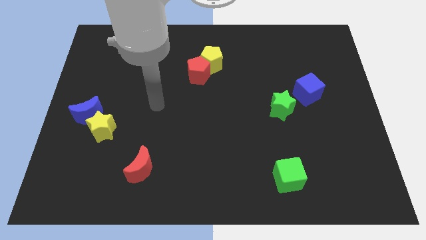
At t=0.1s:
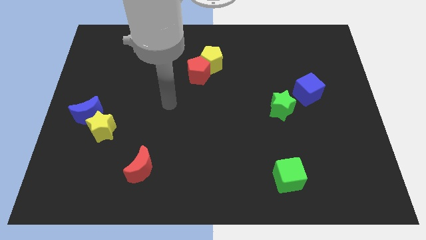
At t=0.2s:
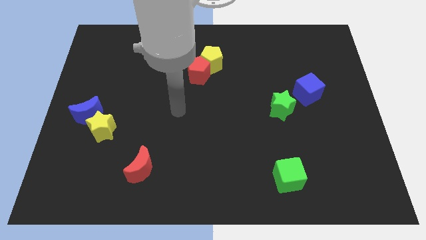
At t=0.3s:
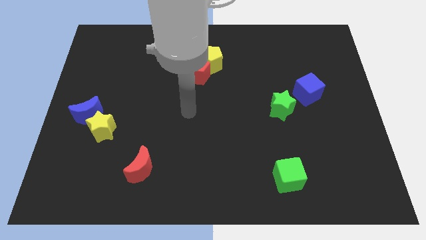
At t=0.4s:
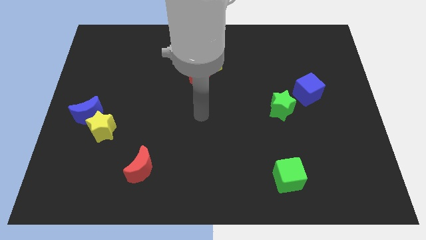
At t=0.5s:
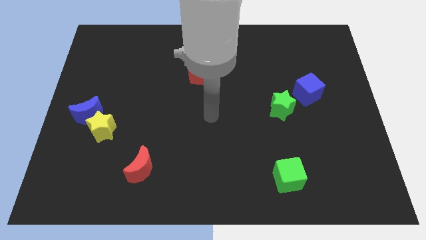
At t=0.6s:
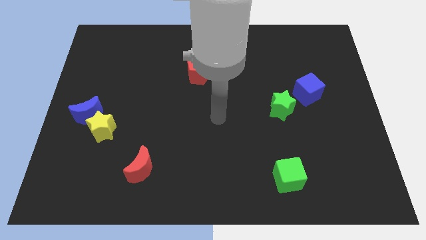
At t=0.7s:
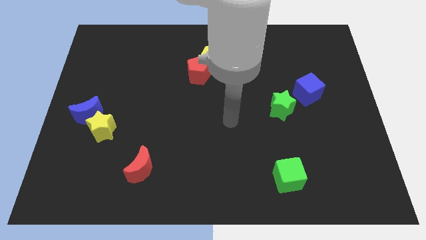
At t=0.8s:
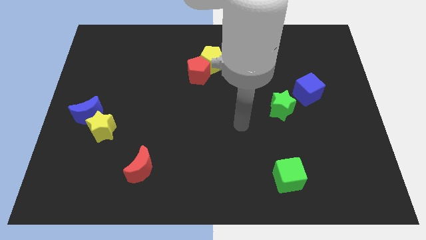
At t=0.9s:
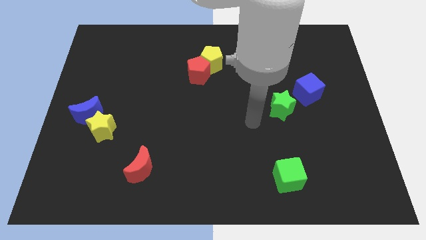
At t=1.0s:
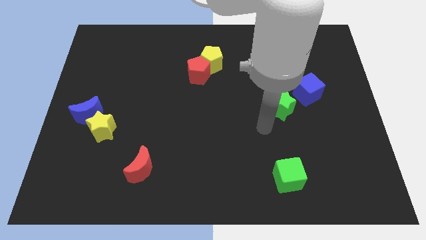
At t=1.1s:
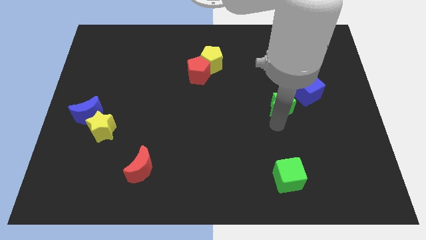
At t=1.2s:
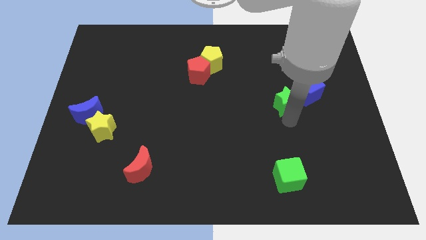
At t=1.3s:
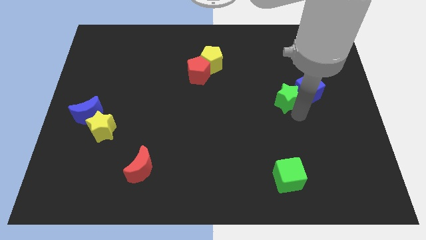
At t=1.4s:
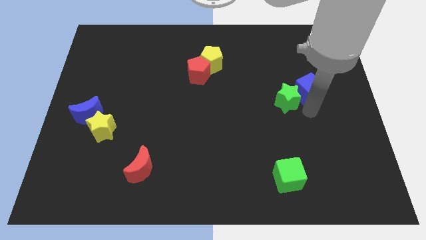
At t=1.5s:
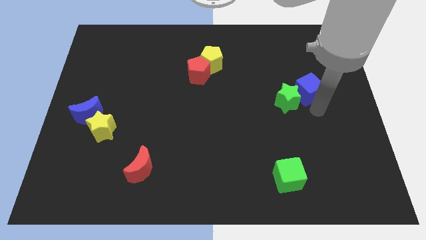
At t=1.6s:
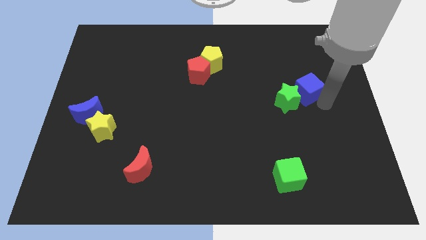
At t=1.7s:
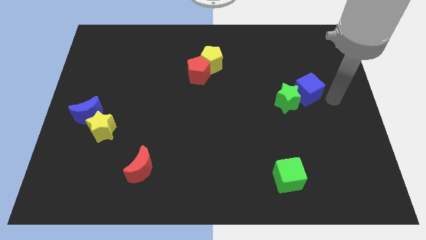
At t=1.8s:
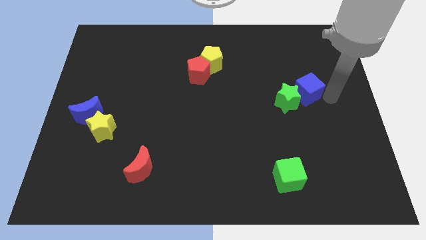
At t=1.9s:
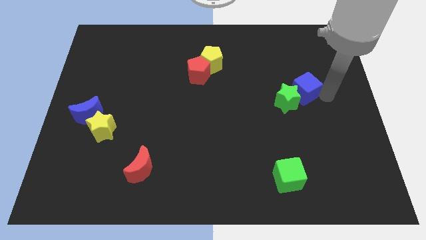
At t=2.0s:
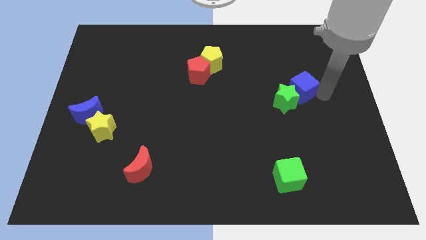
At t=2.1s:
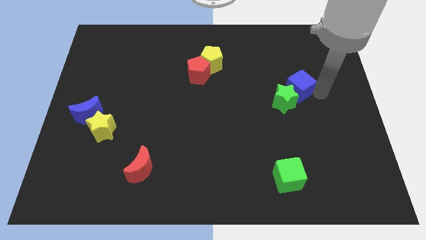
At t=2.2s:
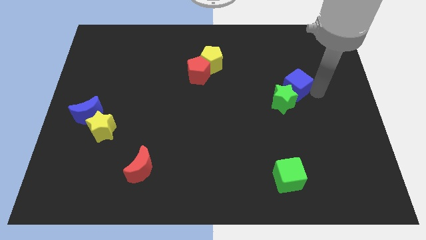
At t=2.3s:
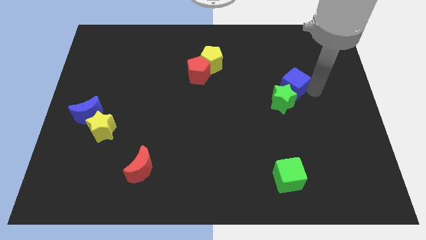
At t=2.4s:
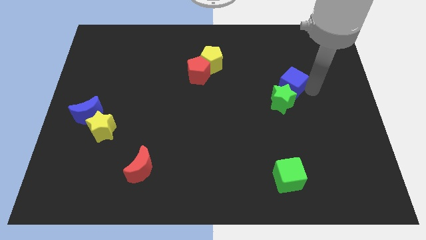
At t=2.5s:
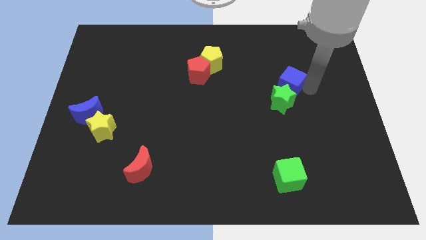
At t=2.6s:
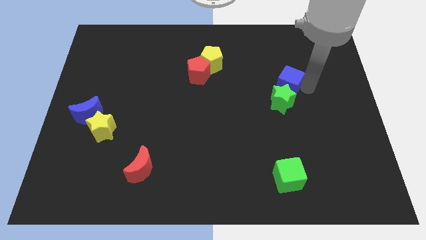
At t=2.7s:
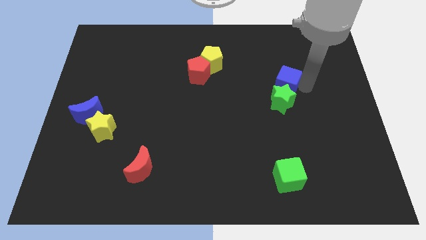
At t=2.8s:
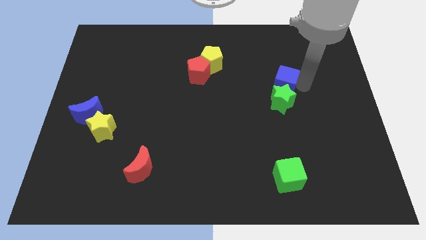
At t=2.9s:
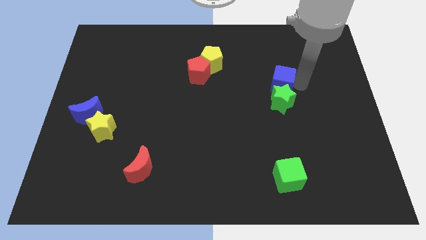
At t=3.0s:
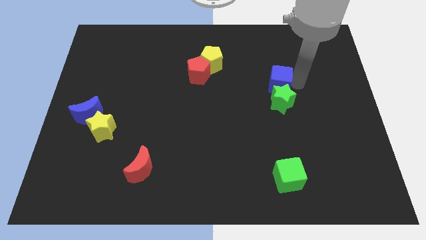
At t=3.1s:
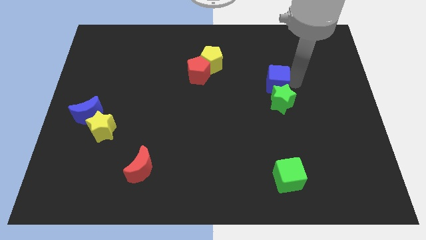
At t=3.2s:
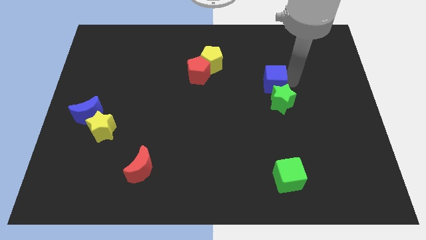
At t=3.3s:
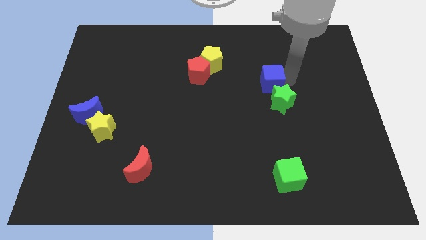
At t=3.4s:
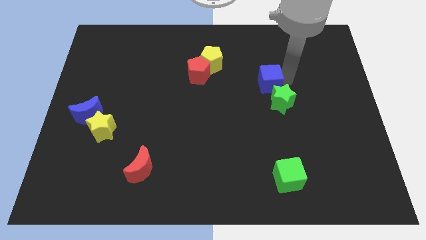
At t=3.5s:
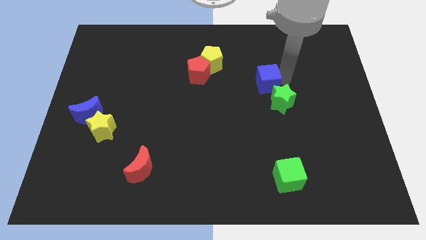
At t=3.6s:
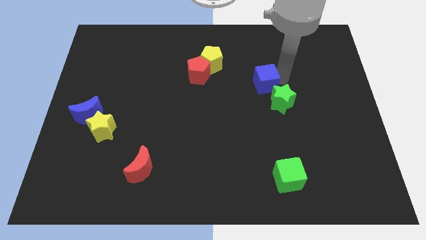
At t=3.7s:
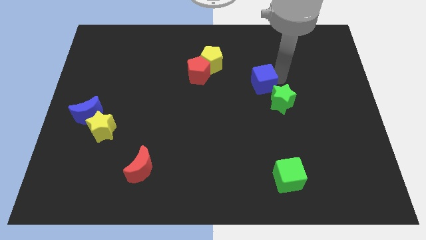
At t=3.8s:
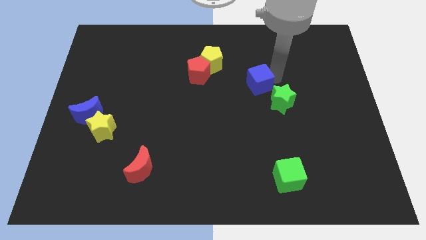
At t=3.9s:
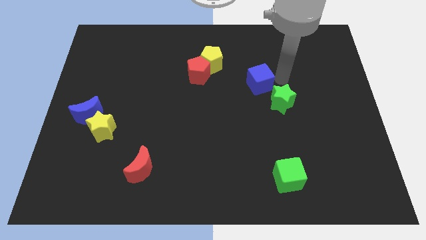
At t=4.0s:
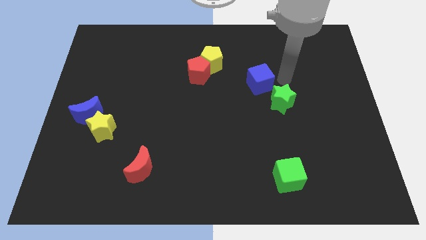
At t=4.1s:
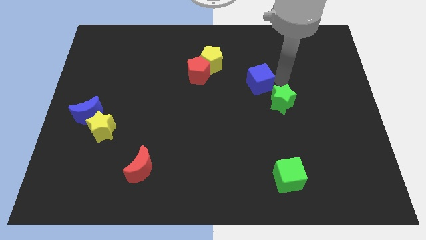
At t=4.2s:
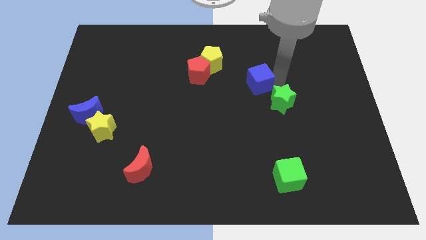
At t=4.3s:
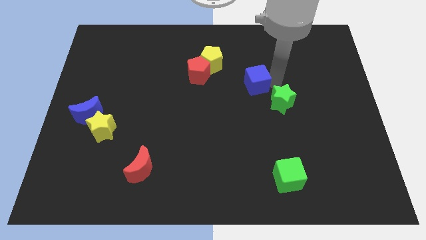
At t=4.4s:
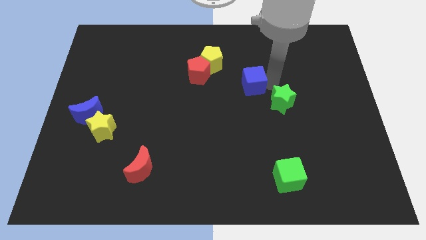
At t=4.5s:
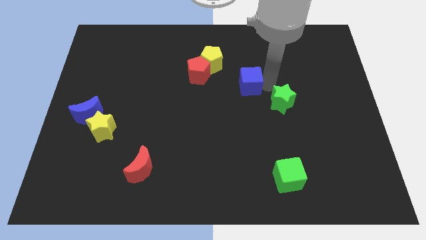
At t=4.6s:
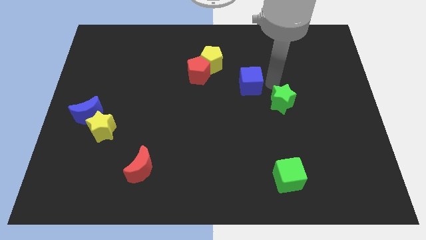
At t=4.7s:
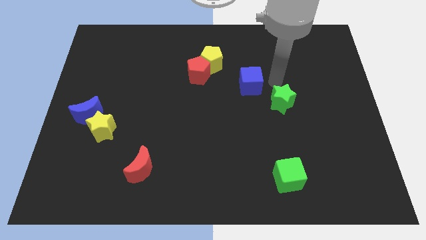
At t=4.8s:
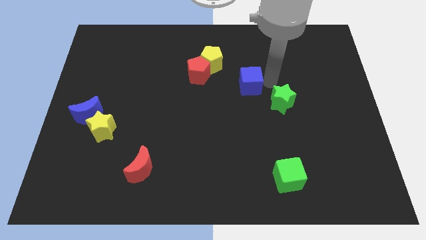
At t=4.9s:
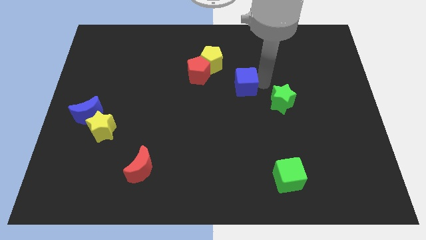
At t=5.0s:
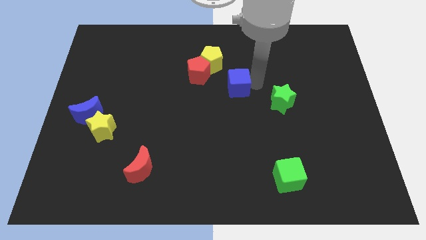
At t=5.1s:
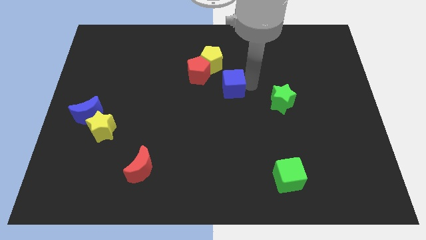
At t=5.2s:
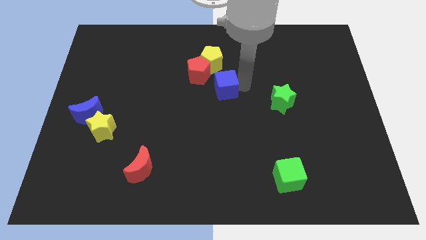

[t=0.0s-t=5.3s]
slide the blue cube to the left

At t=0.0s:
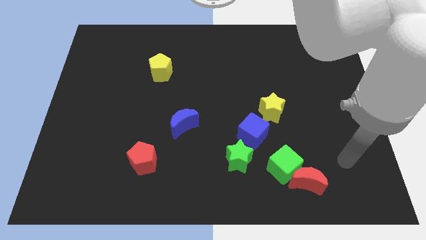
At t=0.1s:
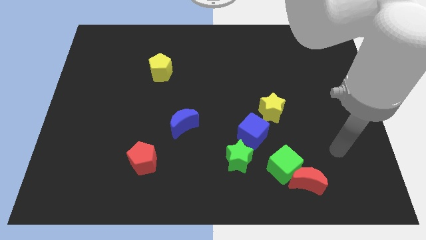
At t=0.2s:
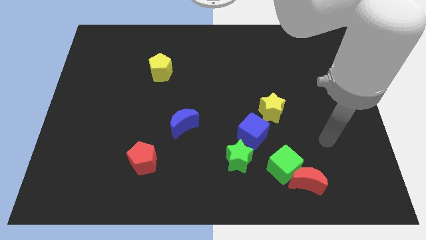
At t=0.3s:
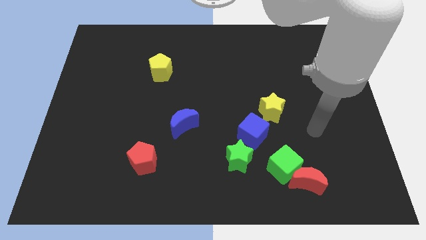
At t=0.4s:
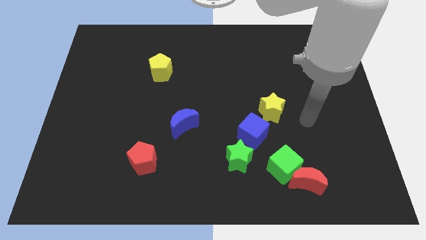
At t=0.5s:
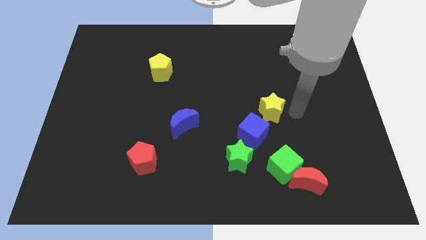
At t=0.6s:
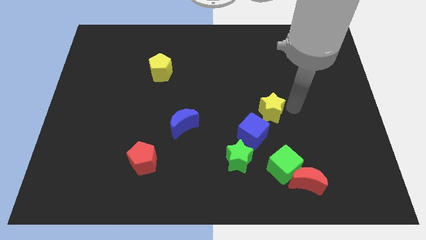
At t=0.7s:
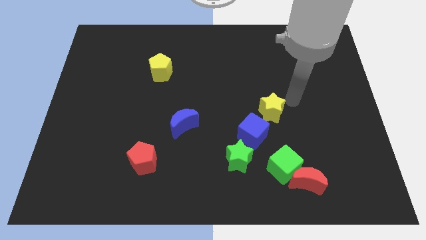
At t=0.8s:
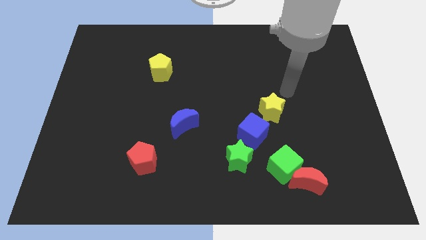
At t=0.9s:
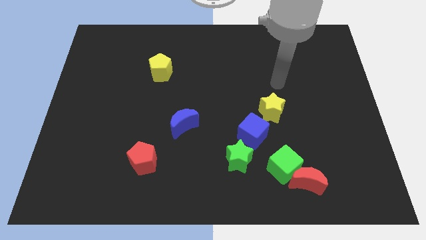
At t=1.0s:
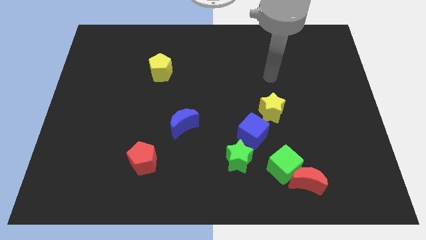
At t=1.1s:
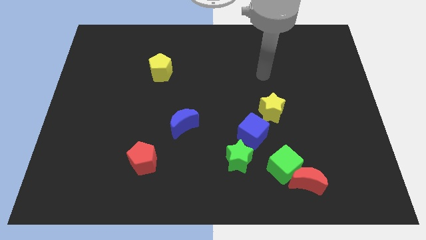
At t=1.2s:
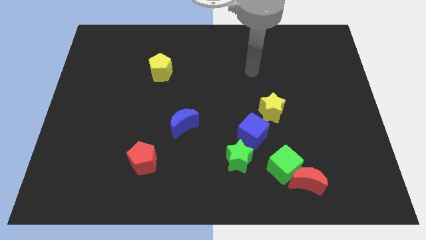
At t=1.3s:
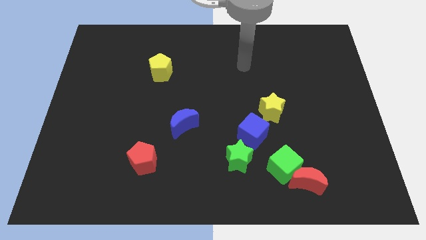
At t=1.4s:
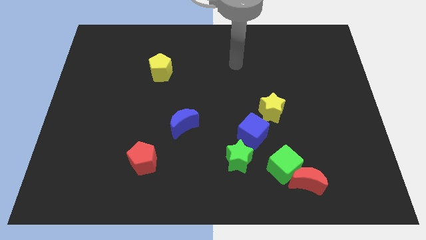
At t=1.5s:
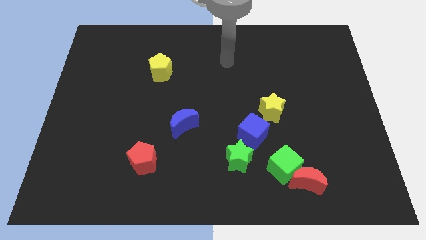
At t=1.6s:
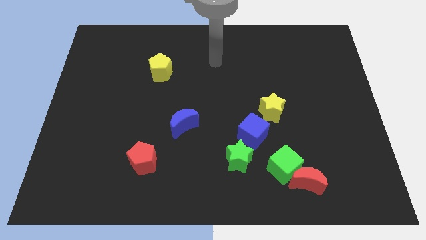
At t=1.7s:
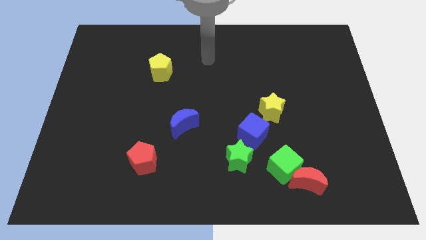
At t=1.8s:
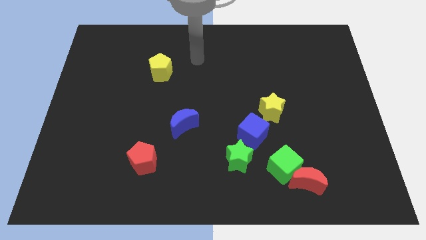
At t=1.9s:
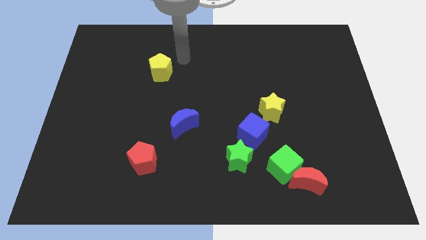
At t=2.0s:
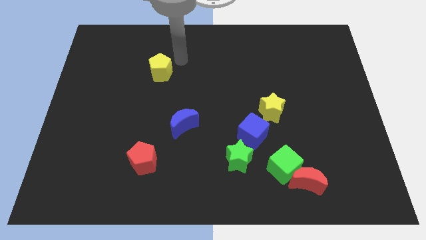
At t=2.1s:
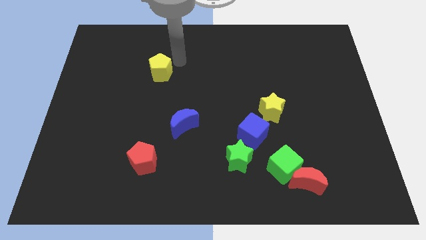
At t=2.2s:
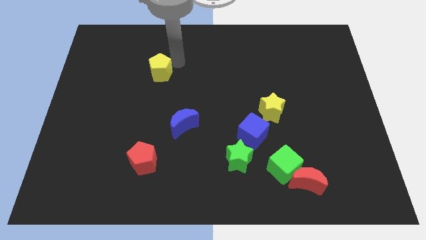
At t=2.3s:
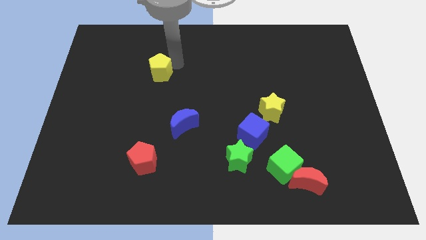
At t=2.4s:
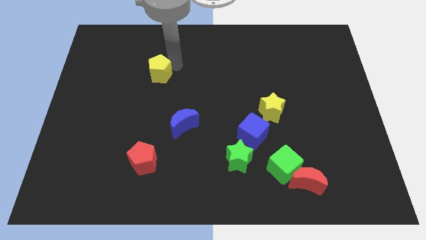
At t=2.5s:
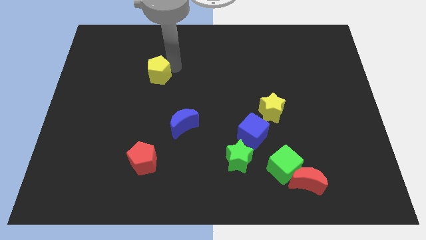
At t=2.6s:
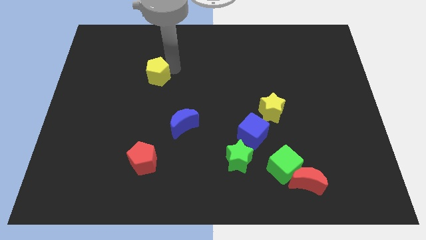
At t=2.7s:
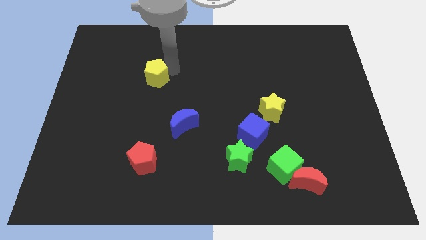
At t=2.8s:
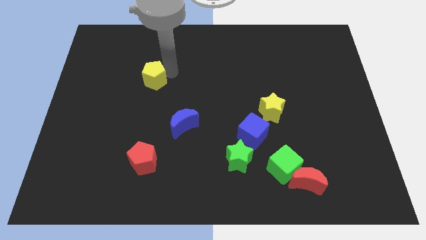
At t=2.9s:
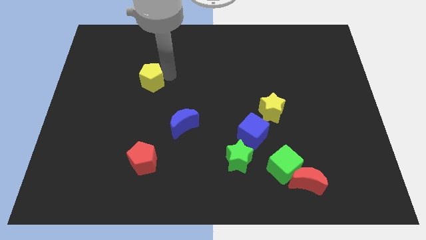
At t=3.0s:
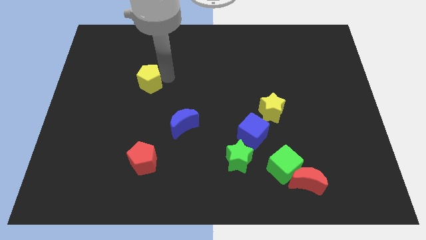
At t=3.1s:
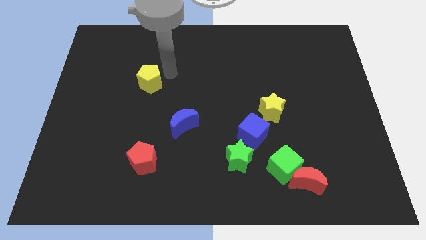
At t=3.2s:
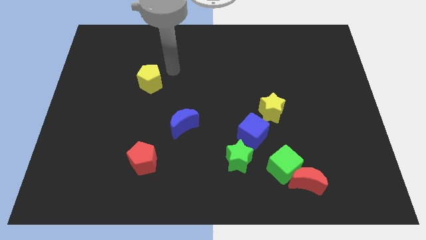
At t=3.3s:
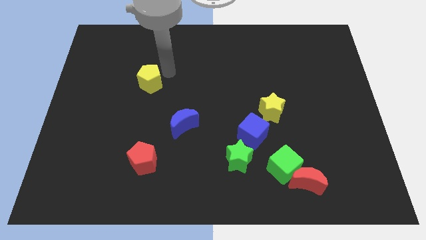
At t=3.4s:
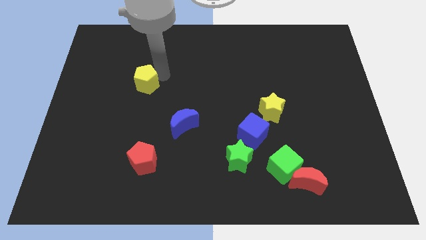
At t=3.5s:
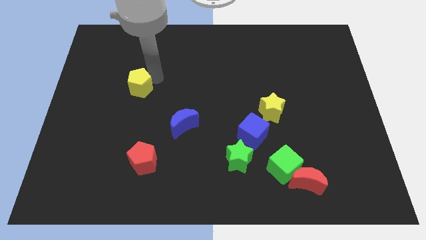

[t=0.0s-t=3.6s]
move the yellow pentagon a bit down and then left
